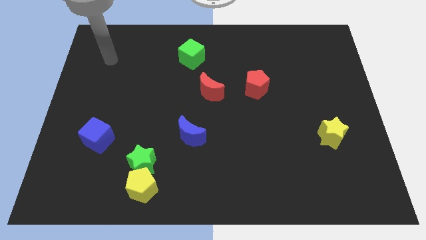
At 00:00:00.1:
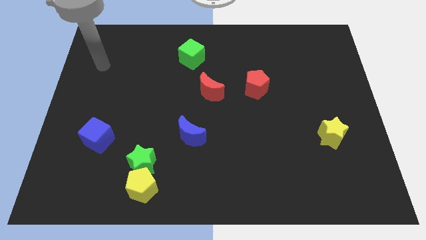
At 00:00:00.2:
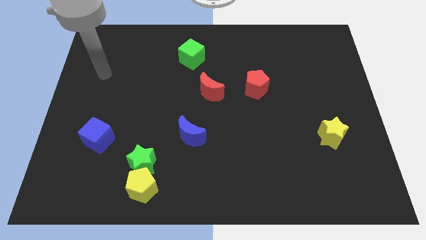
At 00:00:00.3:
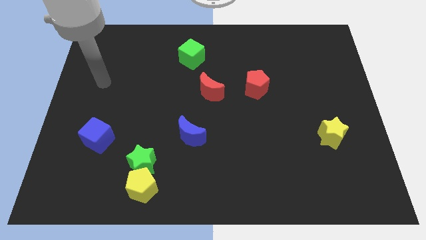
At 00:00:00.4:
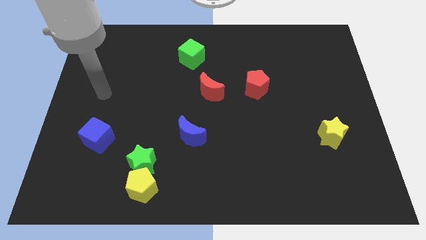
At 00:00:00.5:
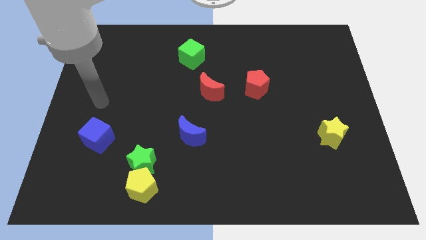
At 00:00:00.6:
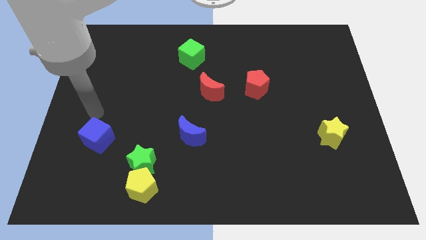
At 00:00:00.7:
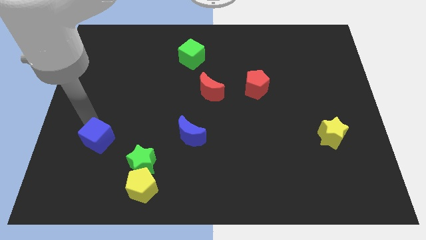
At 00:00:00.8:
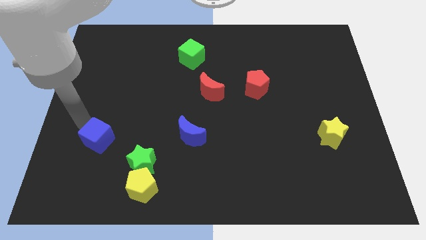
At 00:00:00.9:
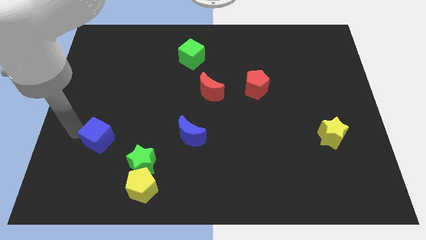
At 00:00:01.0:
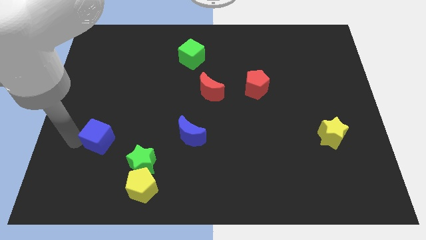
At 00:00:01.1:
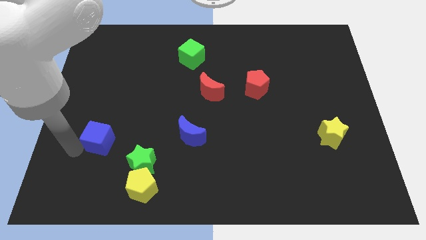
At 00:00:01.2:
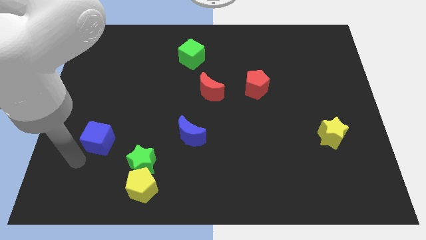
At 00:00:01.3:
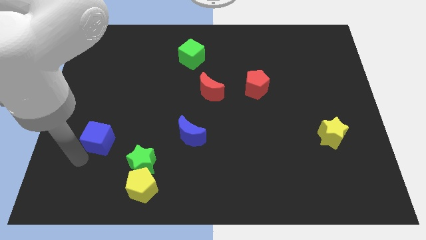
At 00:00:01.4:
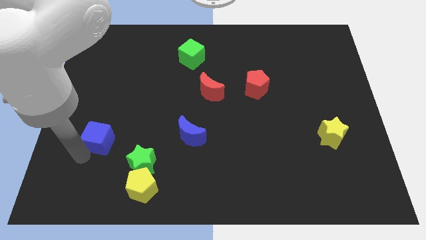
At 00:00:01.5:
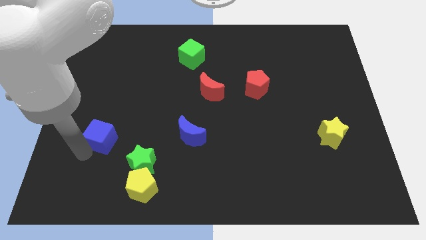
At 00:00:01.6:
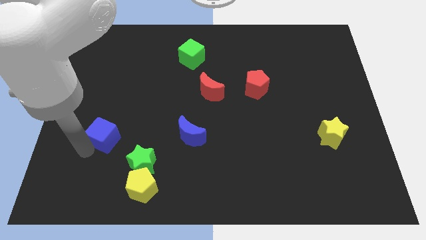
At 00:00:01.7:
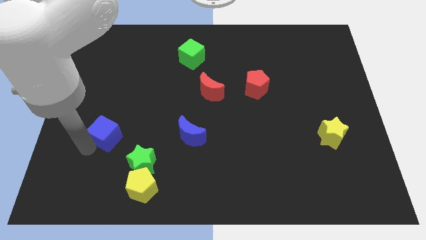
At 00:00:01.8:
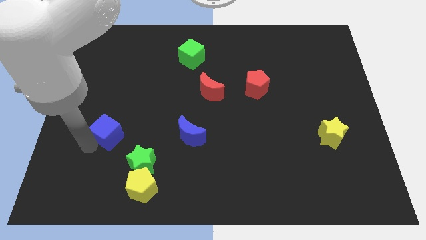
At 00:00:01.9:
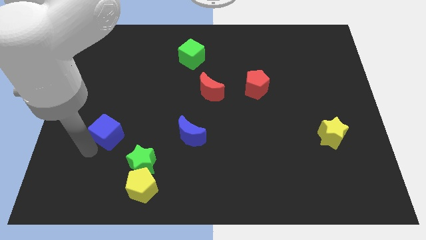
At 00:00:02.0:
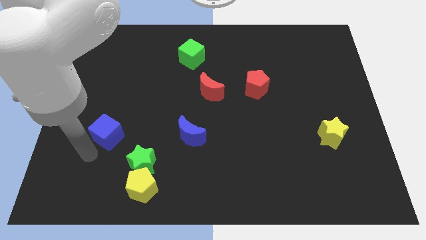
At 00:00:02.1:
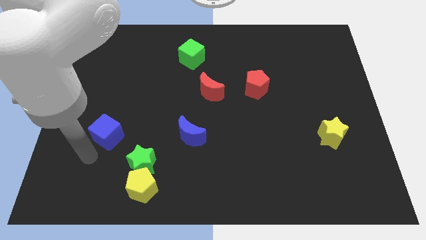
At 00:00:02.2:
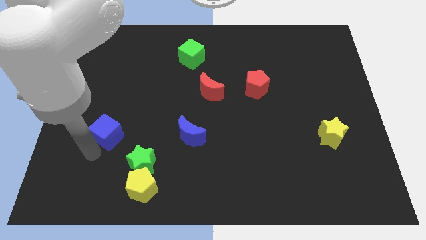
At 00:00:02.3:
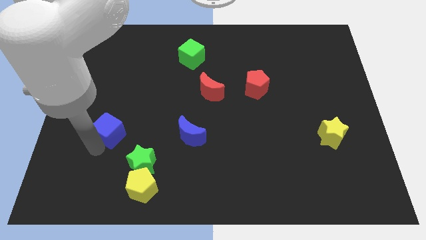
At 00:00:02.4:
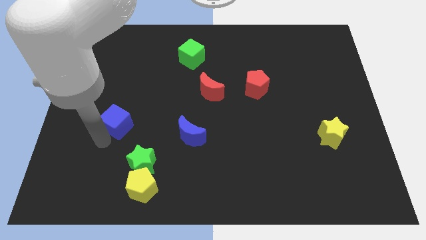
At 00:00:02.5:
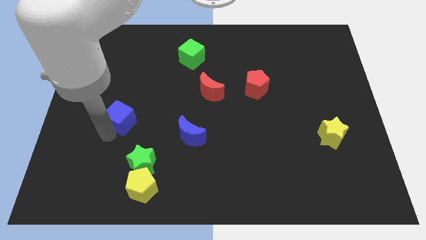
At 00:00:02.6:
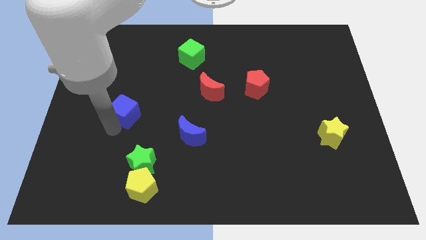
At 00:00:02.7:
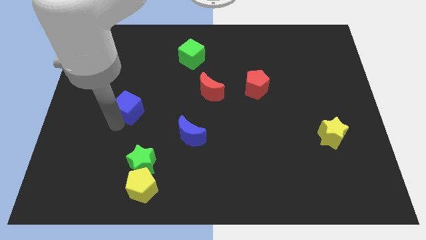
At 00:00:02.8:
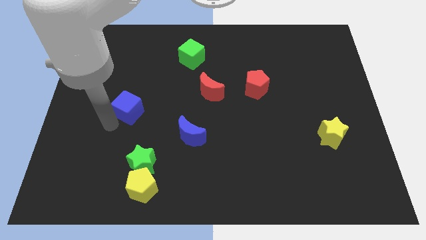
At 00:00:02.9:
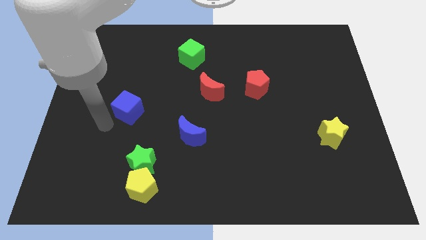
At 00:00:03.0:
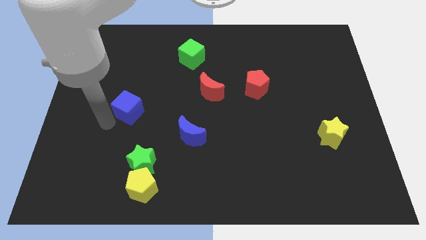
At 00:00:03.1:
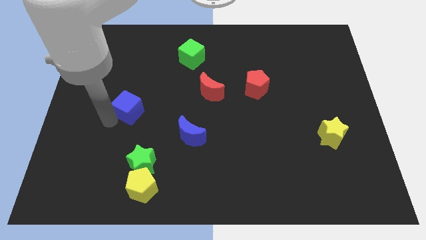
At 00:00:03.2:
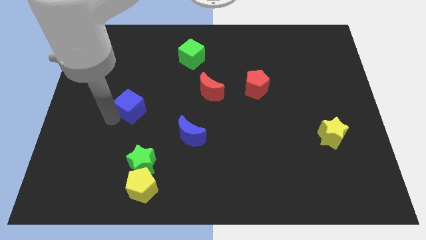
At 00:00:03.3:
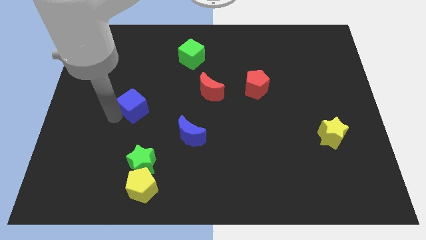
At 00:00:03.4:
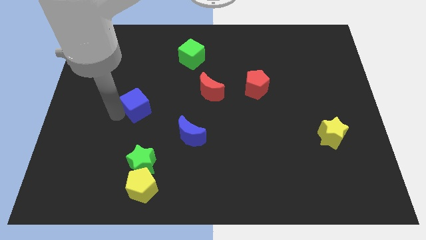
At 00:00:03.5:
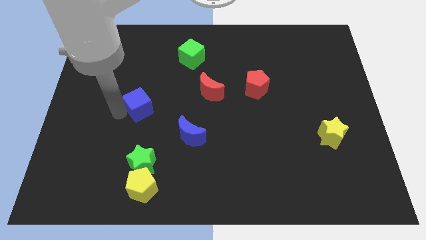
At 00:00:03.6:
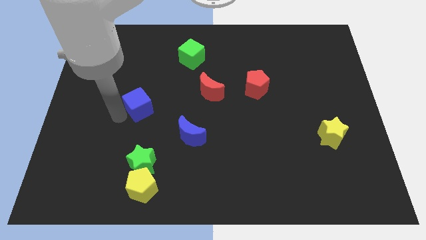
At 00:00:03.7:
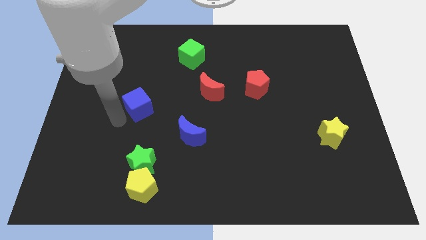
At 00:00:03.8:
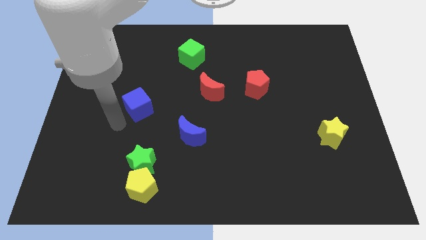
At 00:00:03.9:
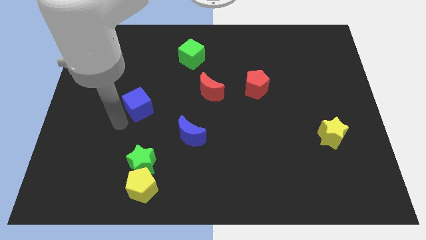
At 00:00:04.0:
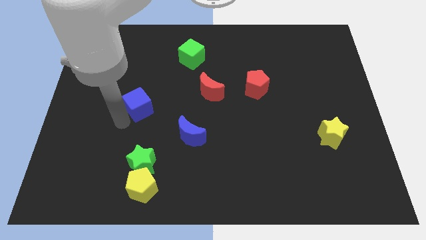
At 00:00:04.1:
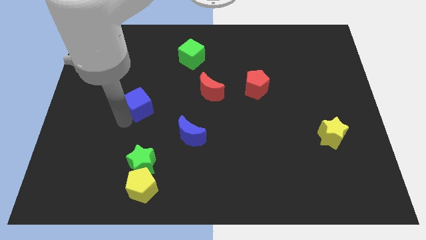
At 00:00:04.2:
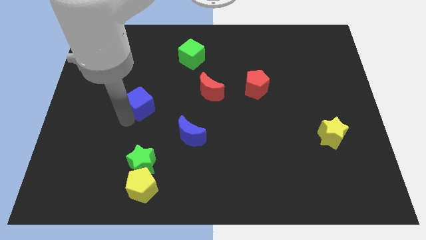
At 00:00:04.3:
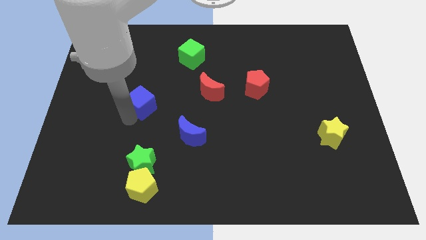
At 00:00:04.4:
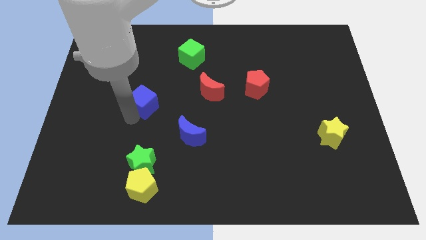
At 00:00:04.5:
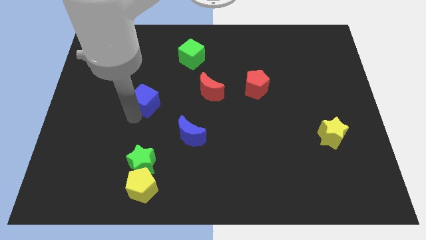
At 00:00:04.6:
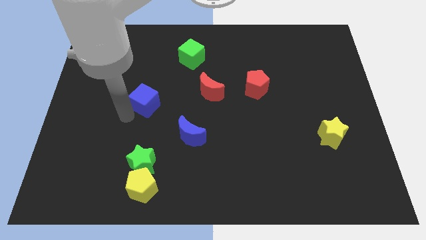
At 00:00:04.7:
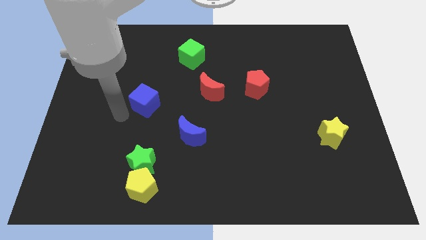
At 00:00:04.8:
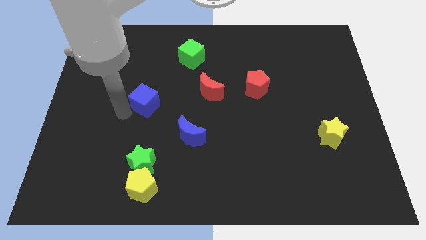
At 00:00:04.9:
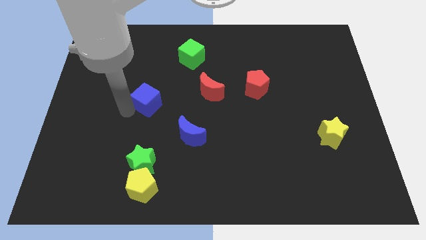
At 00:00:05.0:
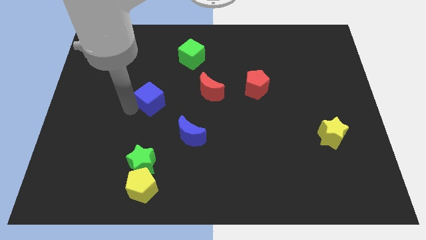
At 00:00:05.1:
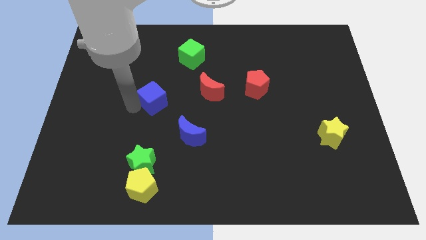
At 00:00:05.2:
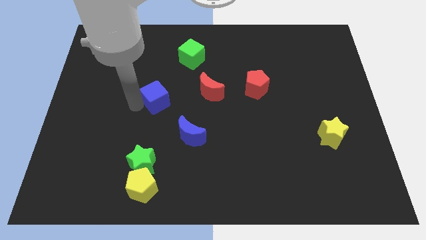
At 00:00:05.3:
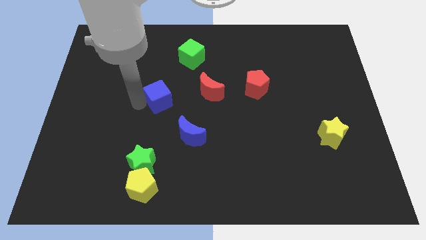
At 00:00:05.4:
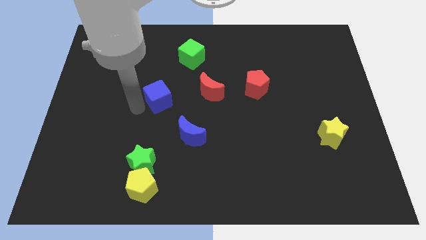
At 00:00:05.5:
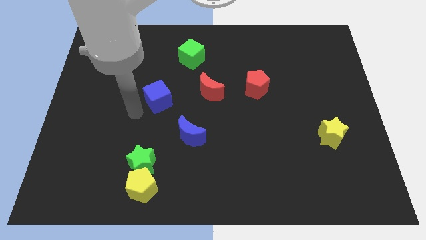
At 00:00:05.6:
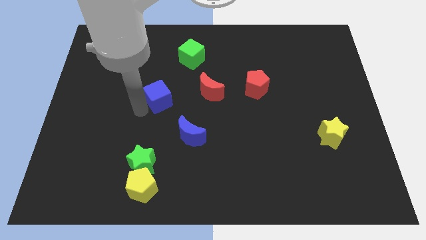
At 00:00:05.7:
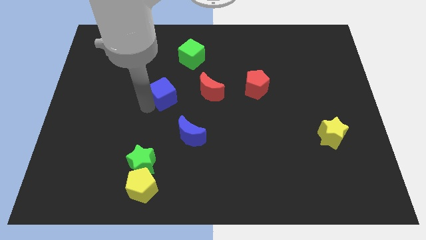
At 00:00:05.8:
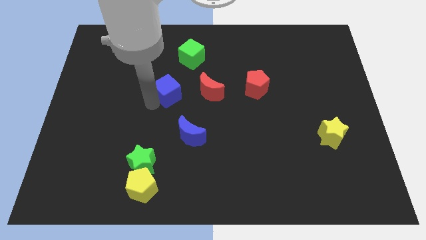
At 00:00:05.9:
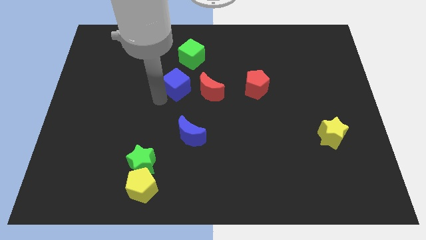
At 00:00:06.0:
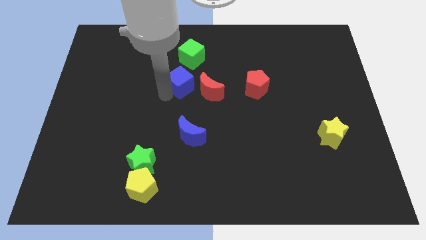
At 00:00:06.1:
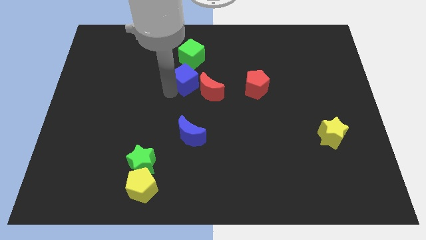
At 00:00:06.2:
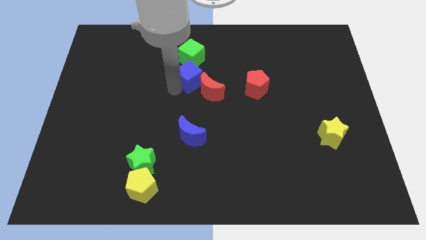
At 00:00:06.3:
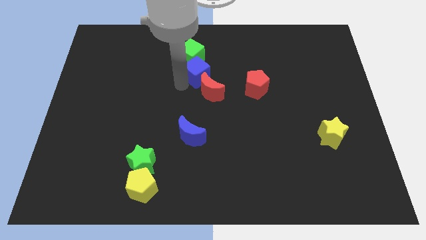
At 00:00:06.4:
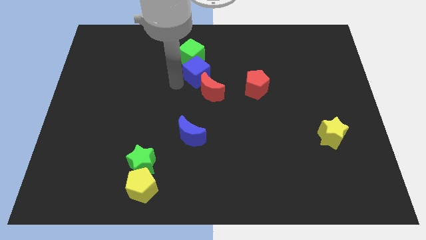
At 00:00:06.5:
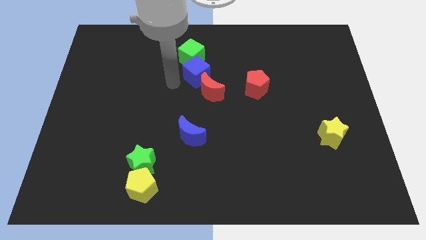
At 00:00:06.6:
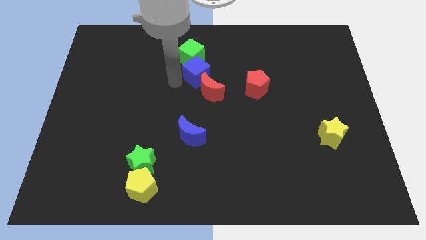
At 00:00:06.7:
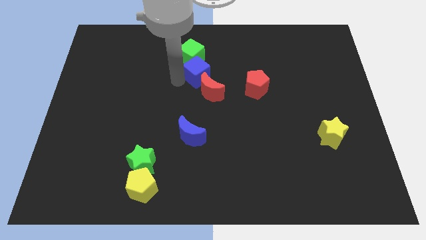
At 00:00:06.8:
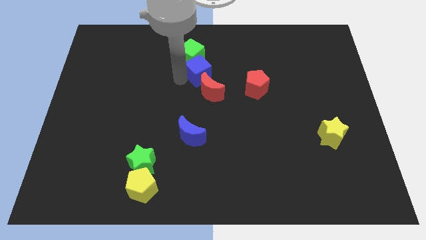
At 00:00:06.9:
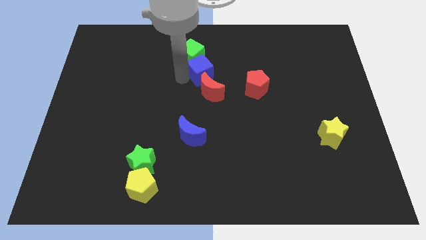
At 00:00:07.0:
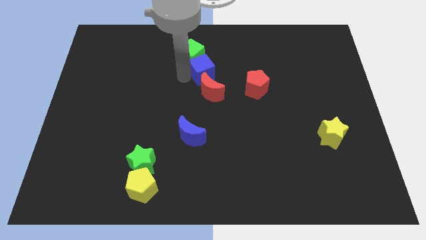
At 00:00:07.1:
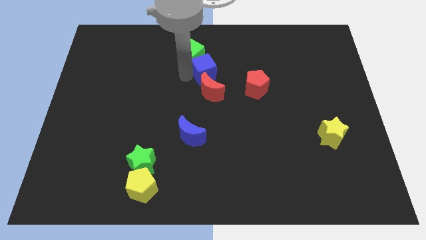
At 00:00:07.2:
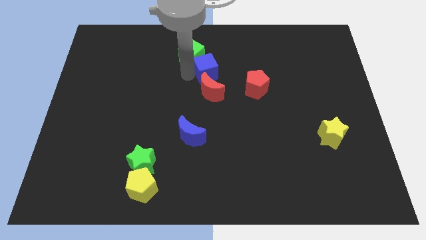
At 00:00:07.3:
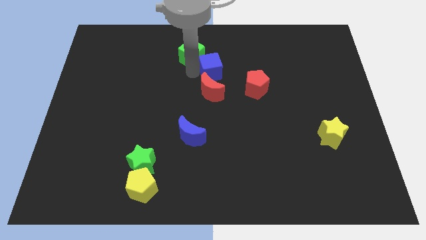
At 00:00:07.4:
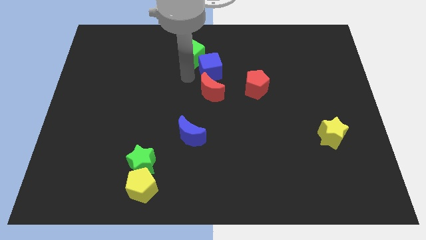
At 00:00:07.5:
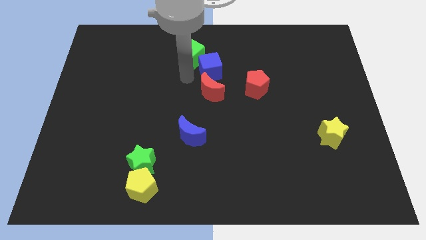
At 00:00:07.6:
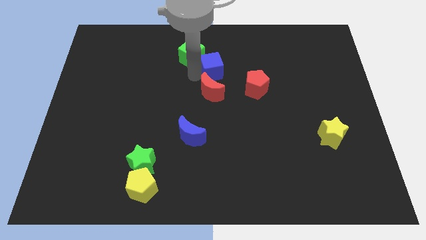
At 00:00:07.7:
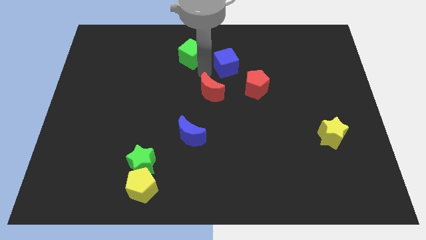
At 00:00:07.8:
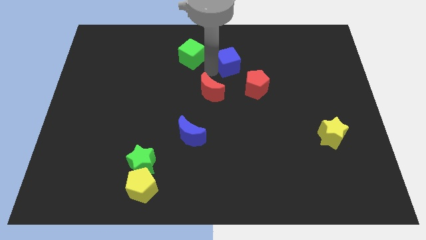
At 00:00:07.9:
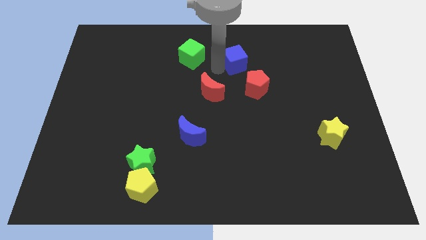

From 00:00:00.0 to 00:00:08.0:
slide the blue cube to the top of the red pentagon
